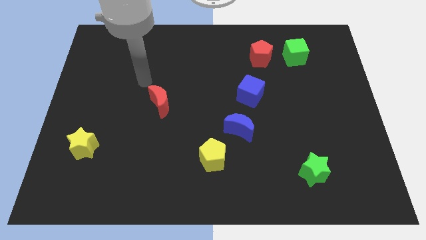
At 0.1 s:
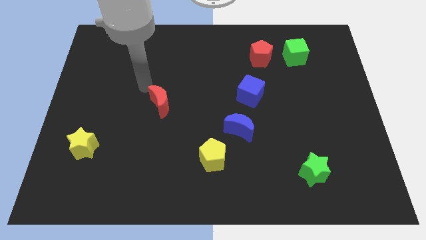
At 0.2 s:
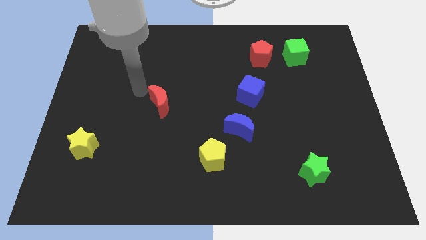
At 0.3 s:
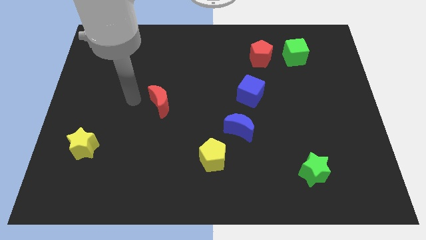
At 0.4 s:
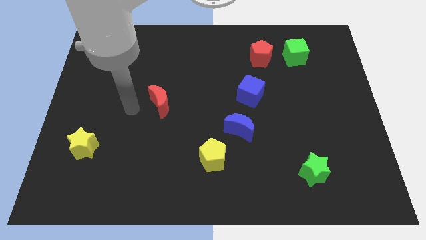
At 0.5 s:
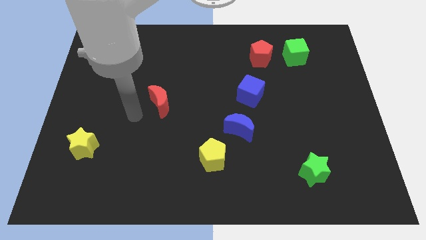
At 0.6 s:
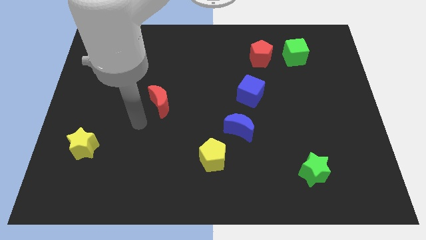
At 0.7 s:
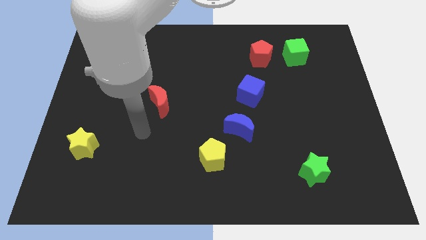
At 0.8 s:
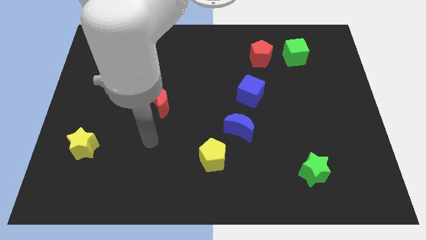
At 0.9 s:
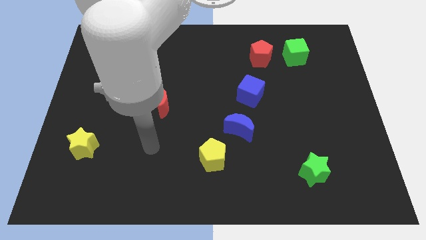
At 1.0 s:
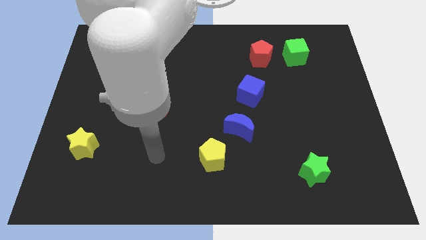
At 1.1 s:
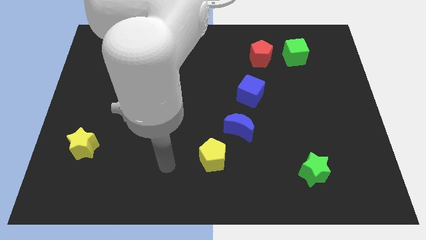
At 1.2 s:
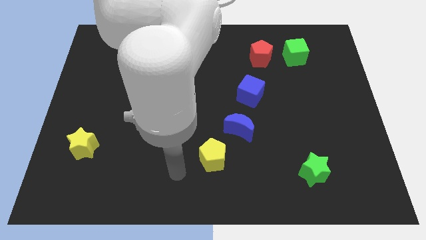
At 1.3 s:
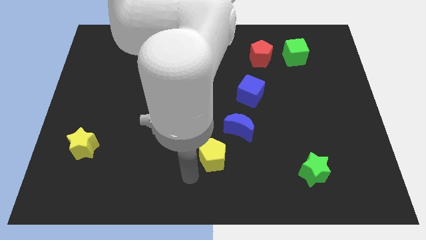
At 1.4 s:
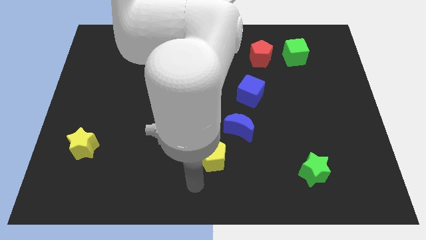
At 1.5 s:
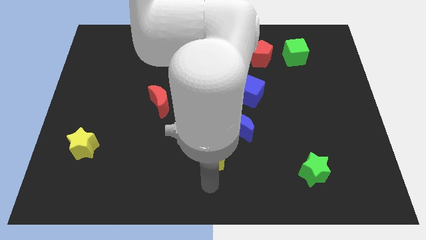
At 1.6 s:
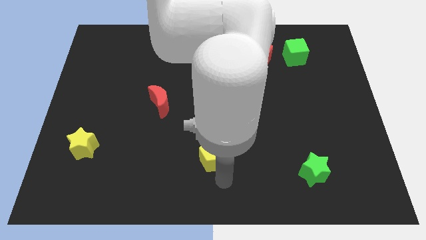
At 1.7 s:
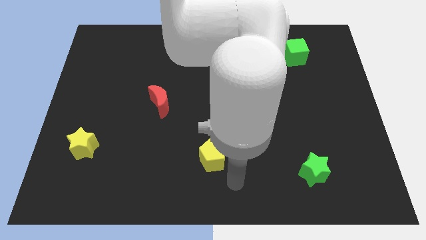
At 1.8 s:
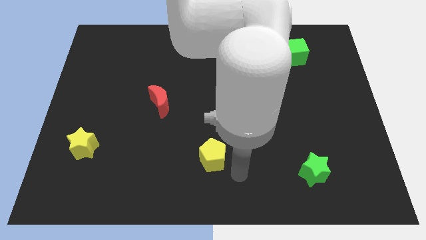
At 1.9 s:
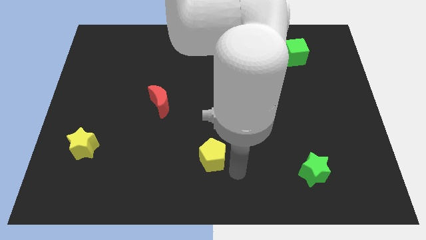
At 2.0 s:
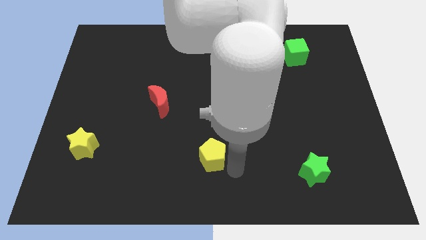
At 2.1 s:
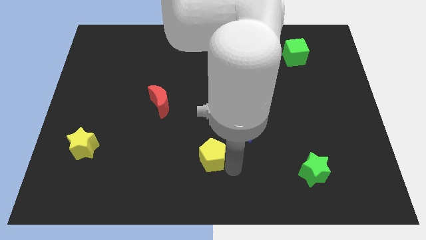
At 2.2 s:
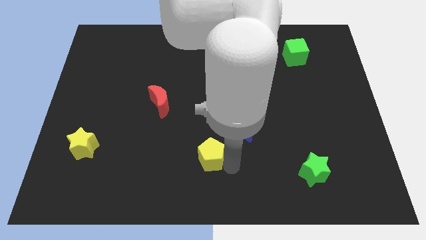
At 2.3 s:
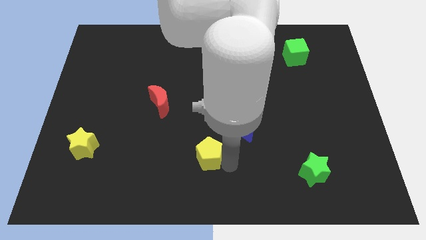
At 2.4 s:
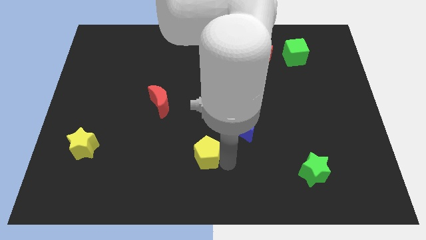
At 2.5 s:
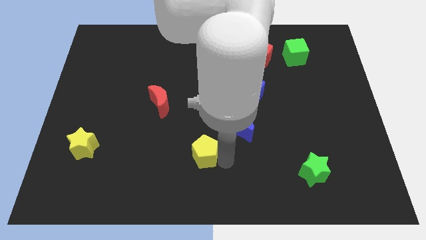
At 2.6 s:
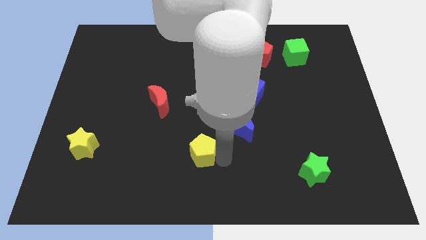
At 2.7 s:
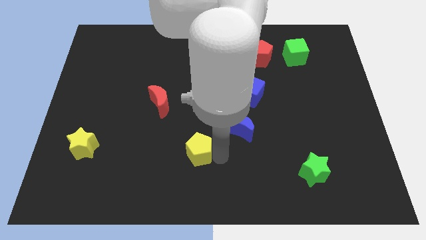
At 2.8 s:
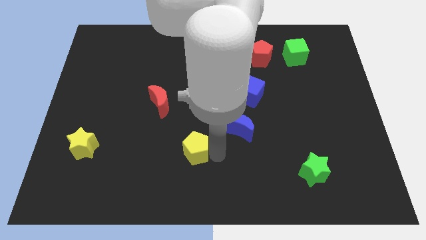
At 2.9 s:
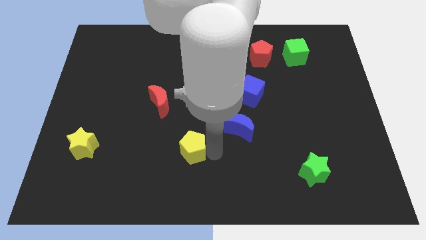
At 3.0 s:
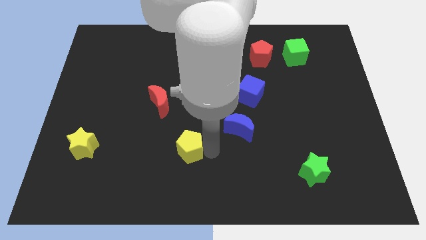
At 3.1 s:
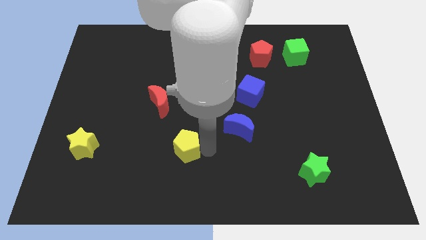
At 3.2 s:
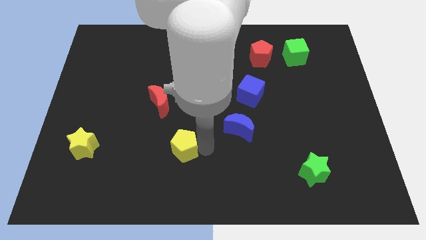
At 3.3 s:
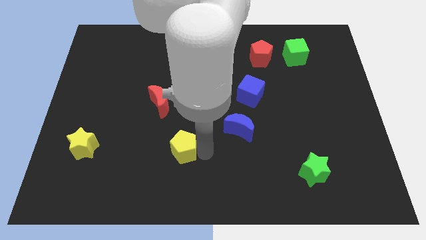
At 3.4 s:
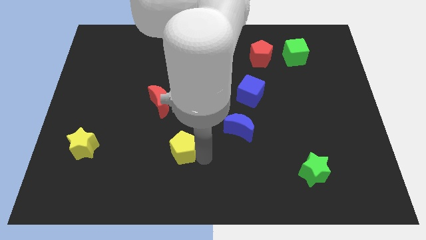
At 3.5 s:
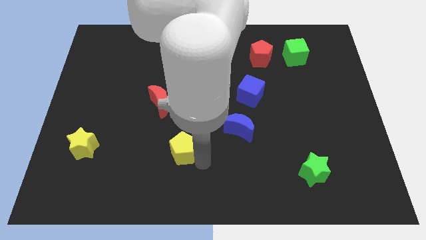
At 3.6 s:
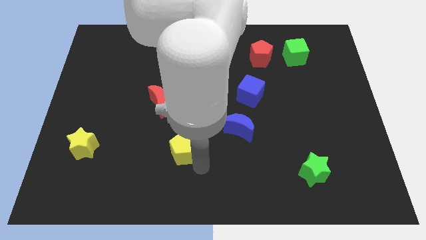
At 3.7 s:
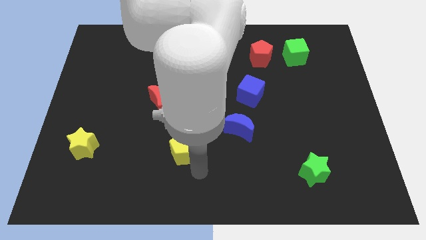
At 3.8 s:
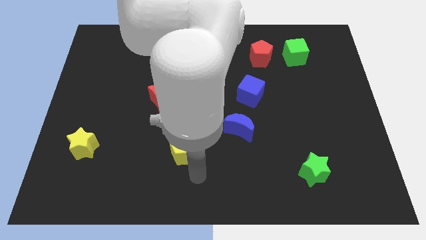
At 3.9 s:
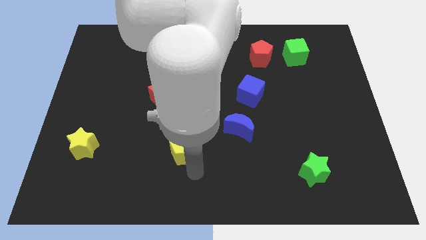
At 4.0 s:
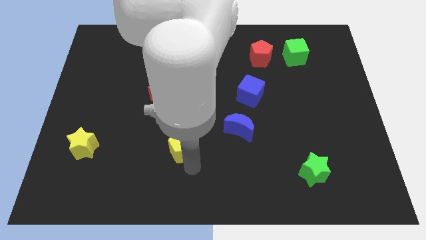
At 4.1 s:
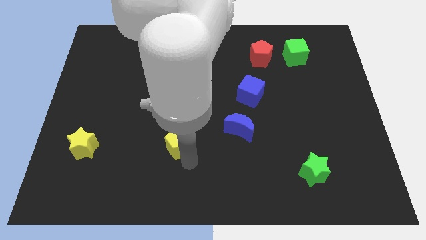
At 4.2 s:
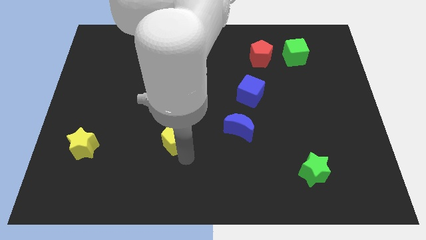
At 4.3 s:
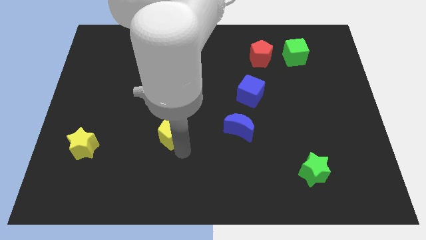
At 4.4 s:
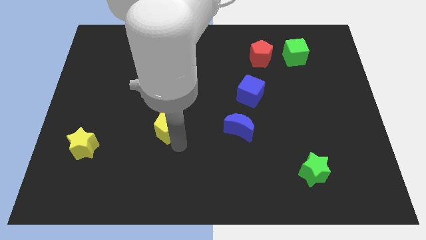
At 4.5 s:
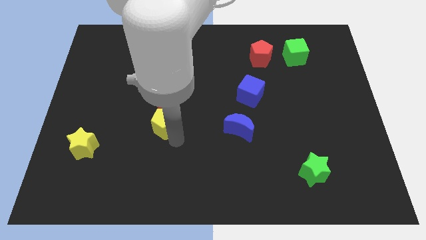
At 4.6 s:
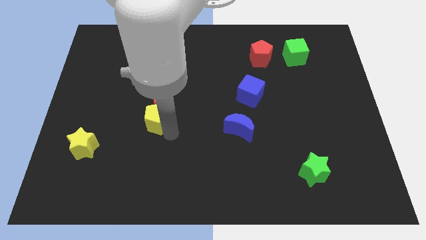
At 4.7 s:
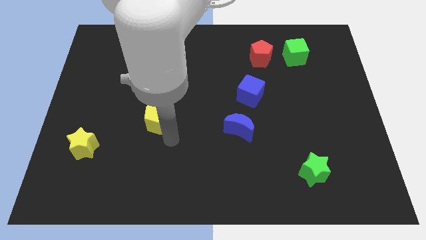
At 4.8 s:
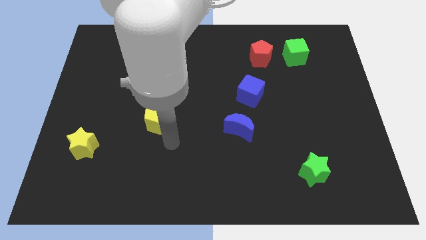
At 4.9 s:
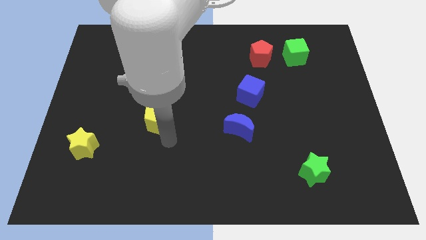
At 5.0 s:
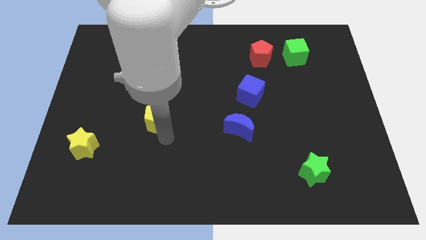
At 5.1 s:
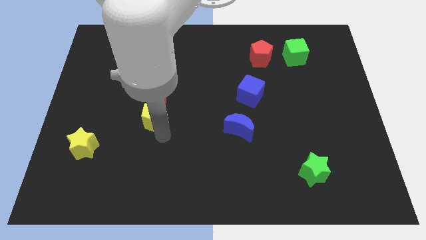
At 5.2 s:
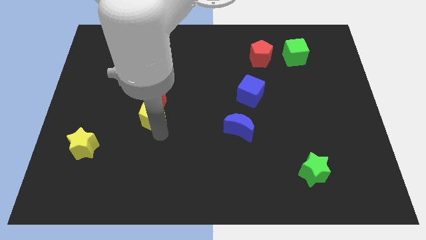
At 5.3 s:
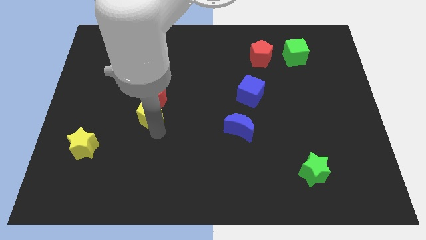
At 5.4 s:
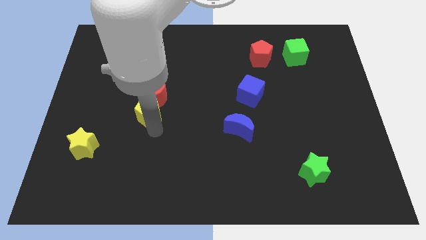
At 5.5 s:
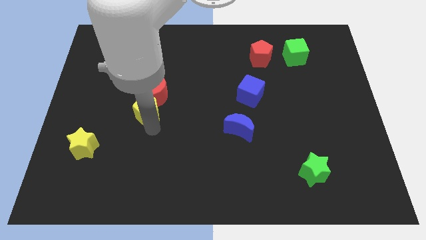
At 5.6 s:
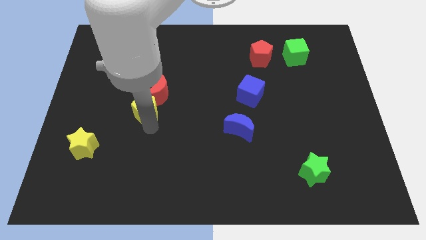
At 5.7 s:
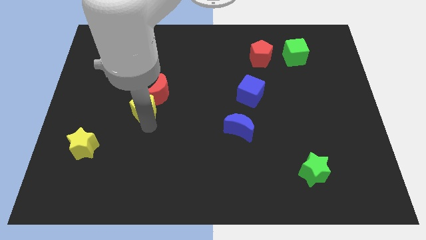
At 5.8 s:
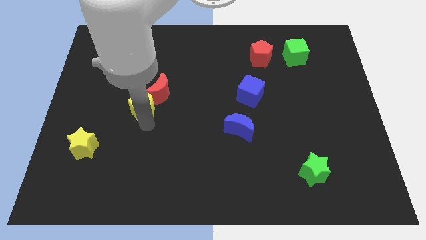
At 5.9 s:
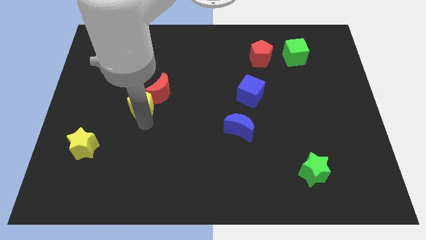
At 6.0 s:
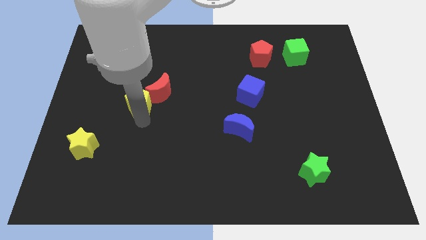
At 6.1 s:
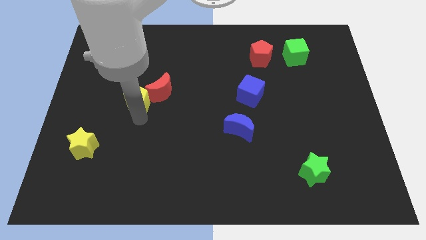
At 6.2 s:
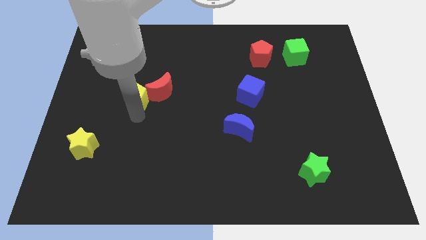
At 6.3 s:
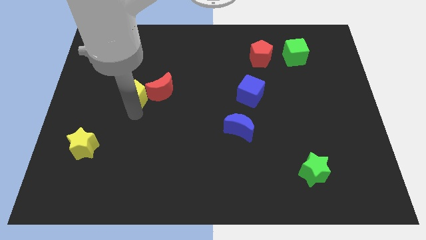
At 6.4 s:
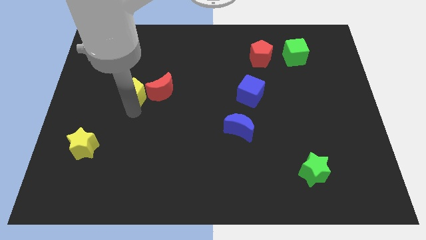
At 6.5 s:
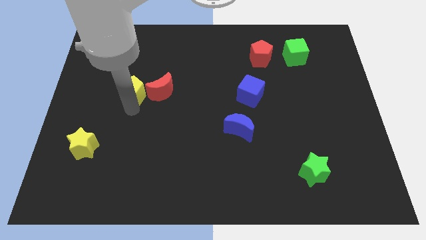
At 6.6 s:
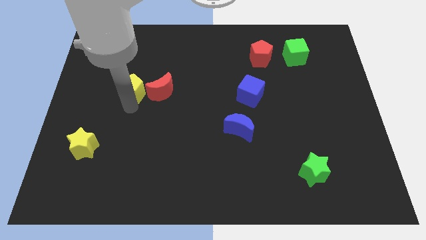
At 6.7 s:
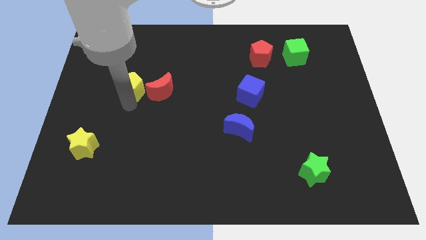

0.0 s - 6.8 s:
slide the yellow pentagon diagonally up and to the left of the red moon
